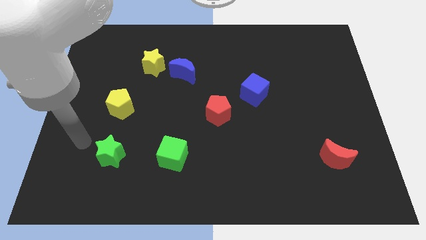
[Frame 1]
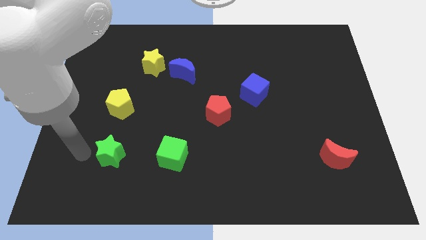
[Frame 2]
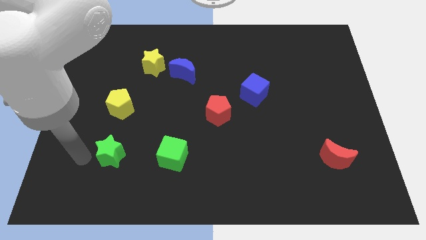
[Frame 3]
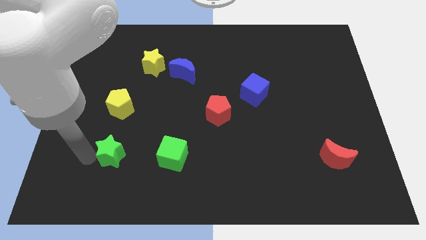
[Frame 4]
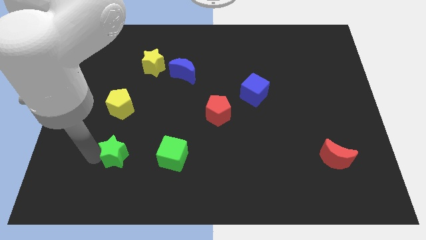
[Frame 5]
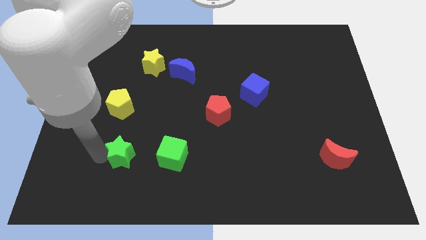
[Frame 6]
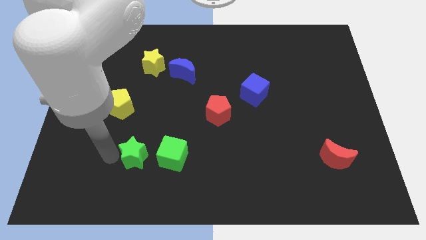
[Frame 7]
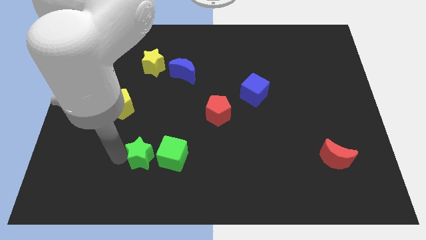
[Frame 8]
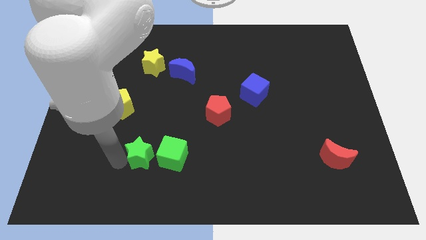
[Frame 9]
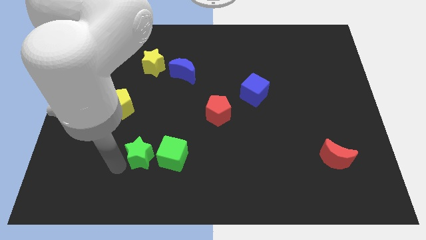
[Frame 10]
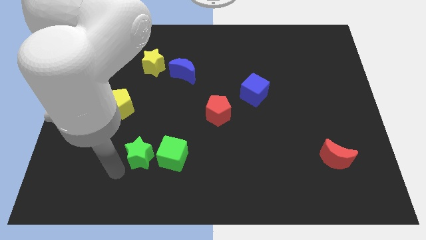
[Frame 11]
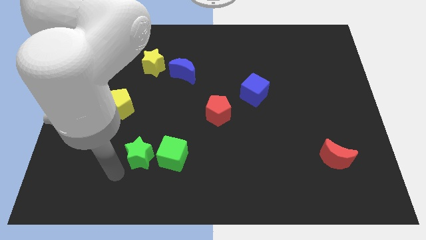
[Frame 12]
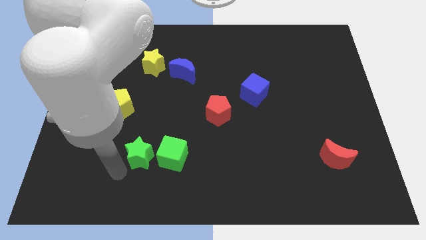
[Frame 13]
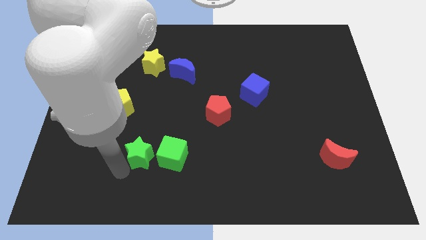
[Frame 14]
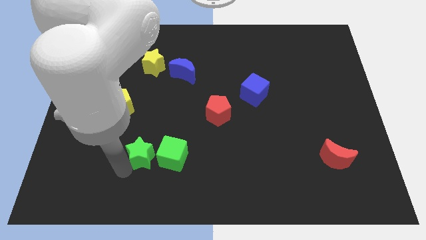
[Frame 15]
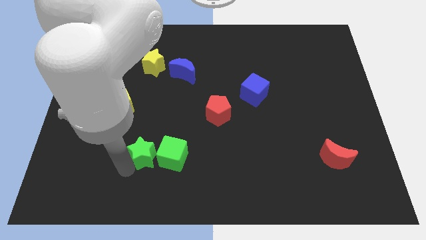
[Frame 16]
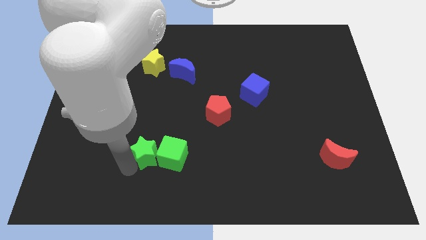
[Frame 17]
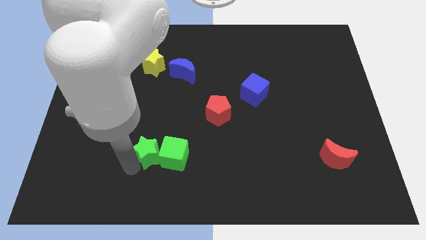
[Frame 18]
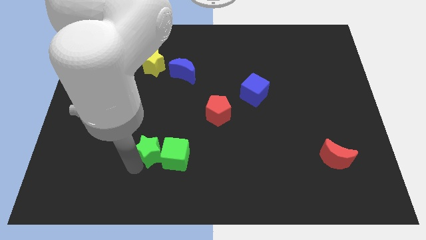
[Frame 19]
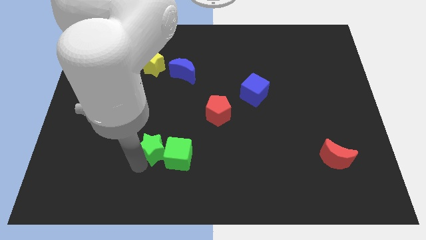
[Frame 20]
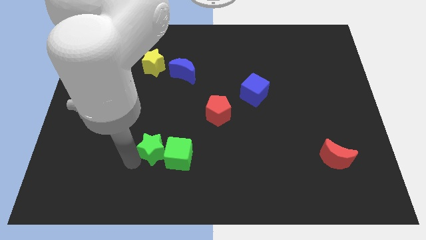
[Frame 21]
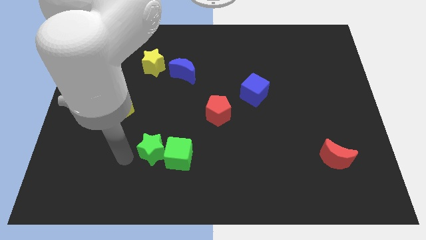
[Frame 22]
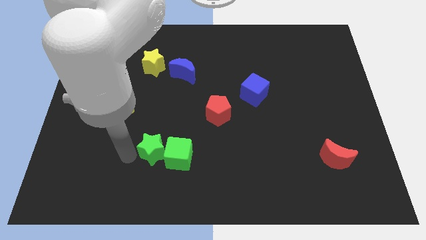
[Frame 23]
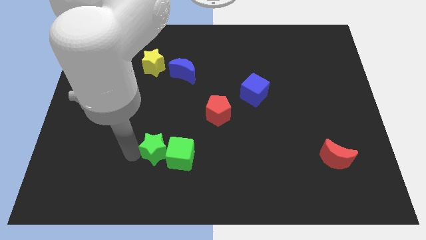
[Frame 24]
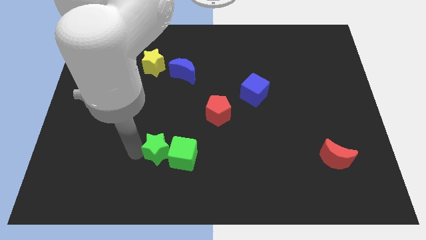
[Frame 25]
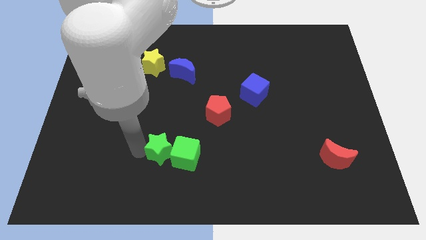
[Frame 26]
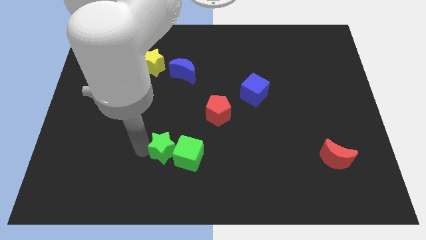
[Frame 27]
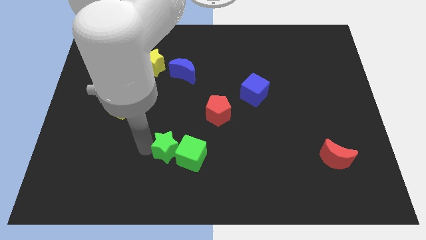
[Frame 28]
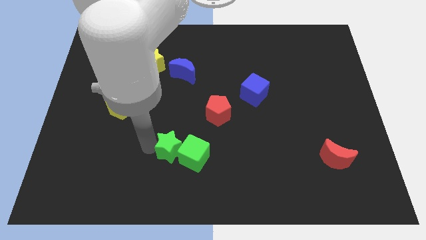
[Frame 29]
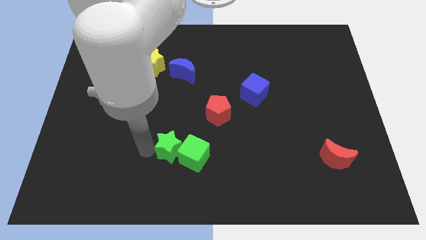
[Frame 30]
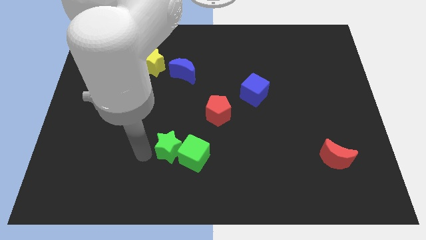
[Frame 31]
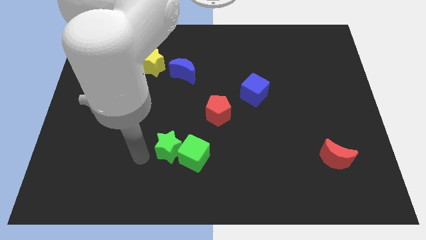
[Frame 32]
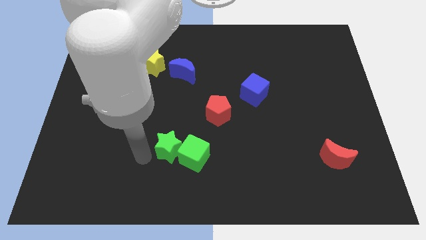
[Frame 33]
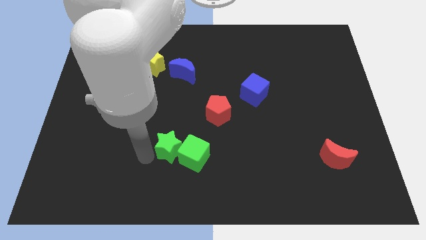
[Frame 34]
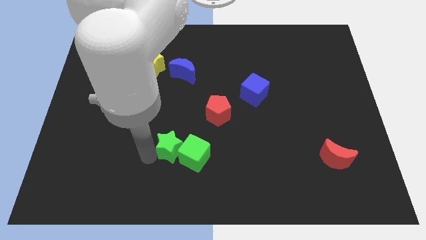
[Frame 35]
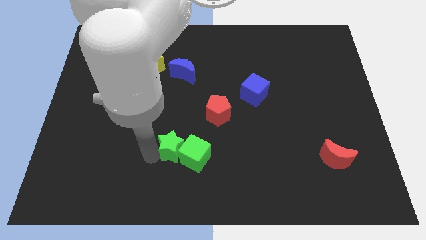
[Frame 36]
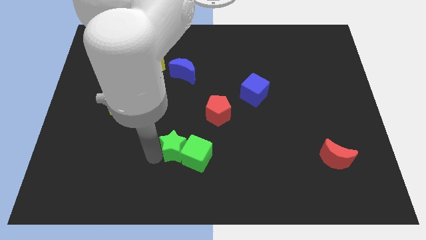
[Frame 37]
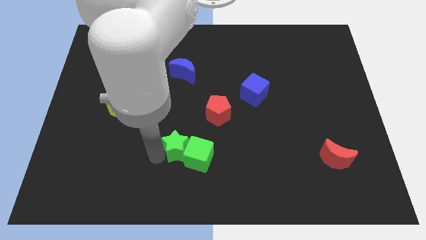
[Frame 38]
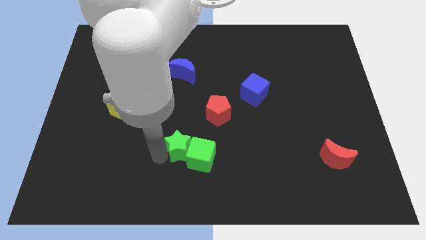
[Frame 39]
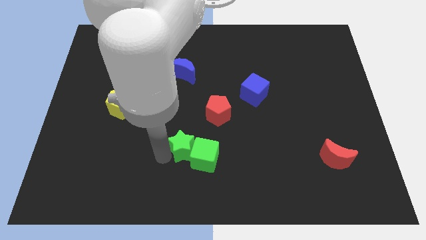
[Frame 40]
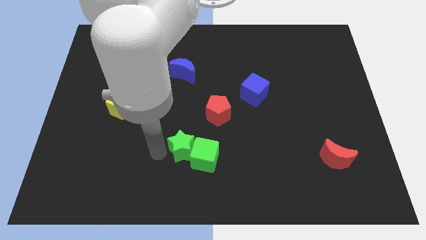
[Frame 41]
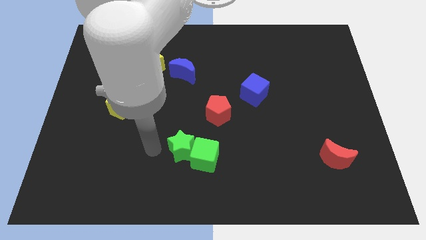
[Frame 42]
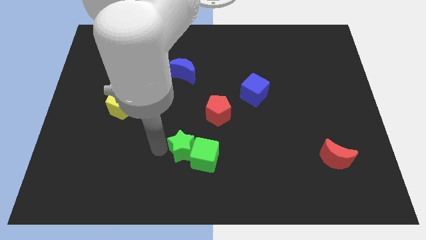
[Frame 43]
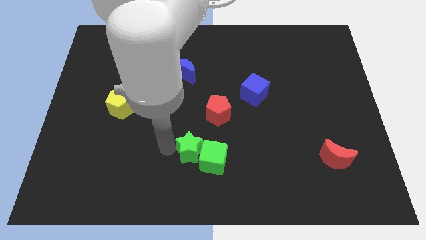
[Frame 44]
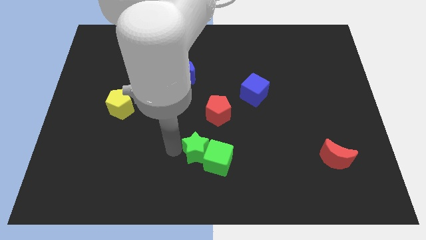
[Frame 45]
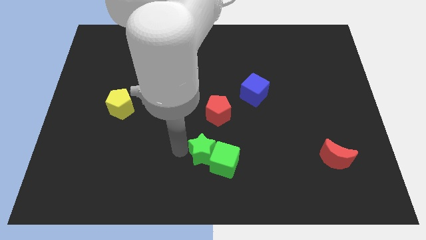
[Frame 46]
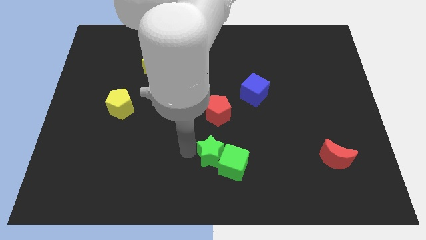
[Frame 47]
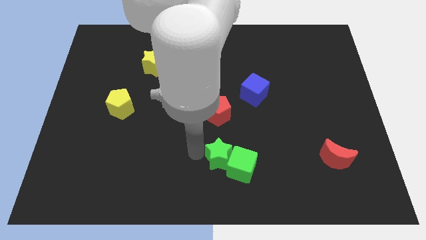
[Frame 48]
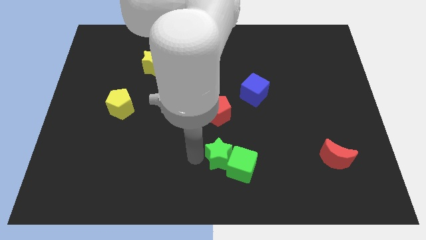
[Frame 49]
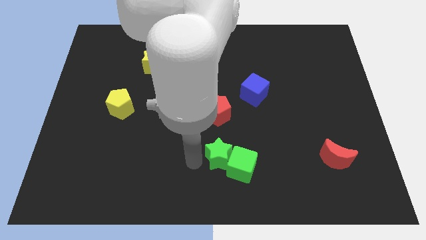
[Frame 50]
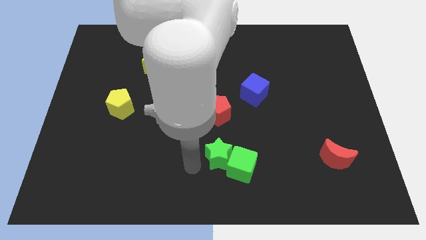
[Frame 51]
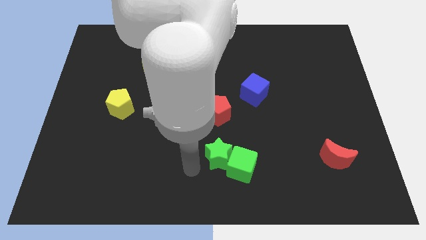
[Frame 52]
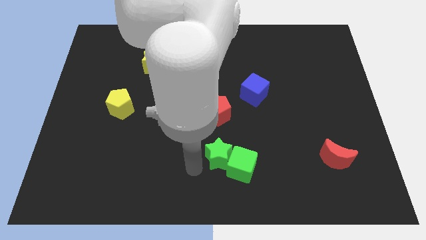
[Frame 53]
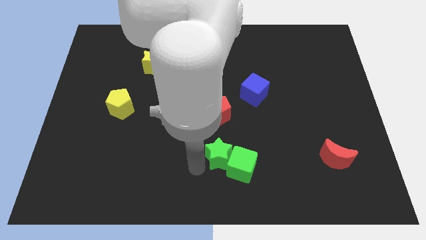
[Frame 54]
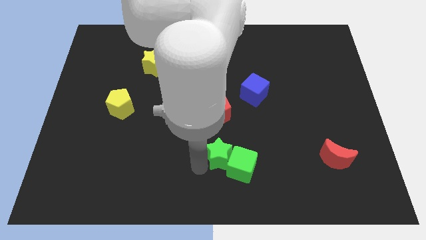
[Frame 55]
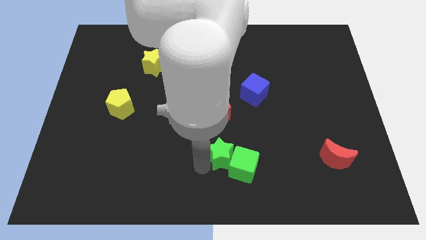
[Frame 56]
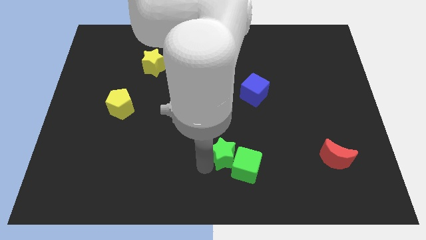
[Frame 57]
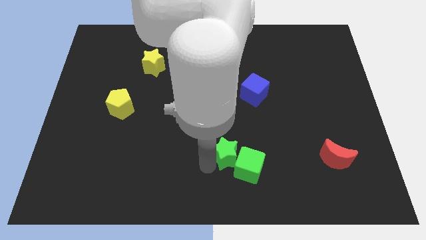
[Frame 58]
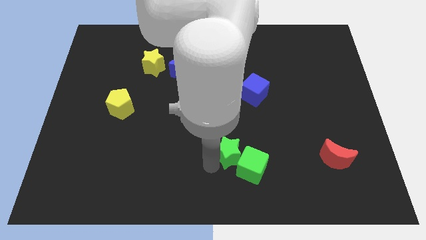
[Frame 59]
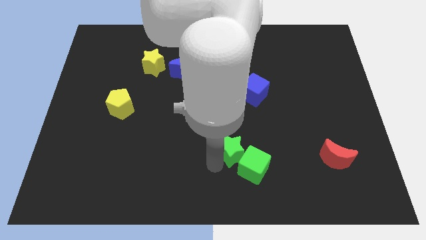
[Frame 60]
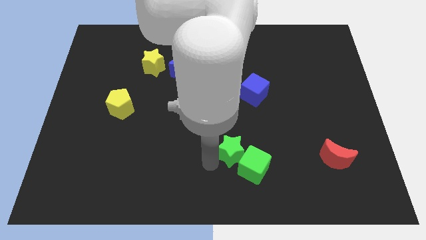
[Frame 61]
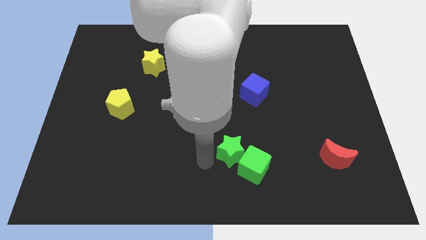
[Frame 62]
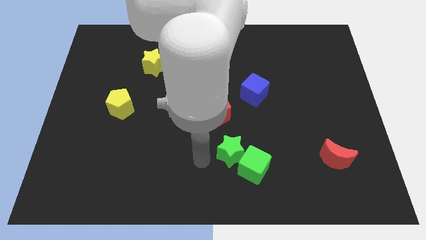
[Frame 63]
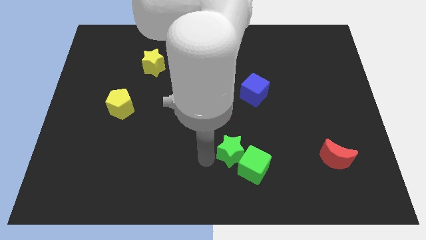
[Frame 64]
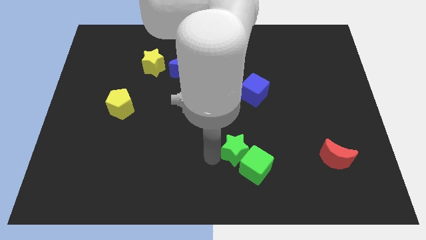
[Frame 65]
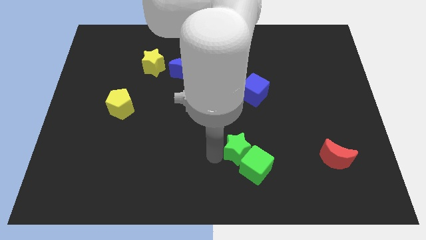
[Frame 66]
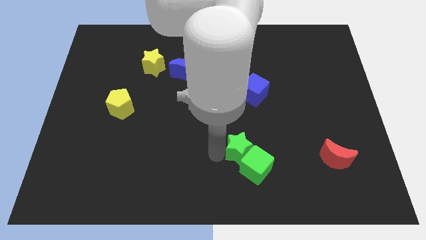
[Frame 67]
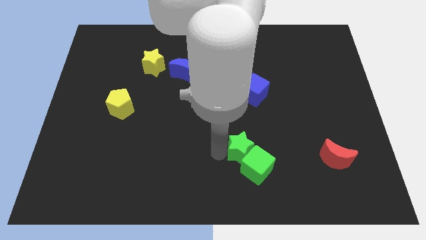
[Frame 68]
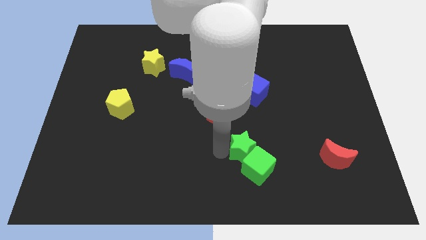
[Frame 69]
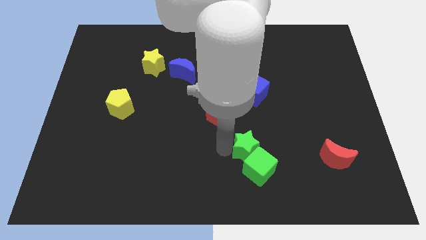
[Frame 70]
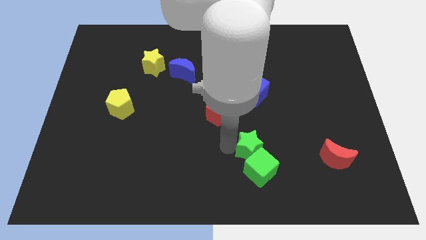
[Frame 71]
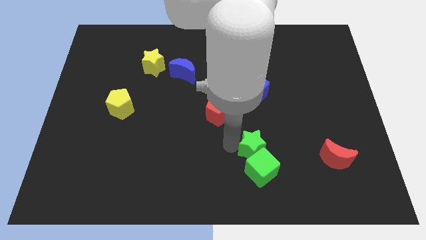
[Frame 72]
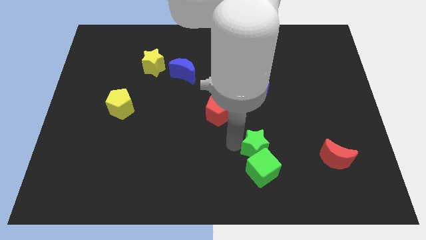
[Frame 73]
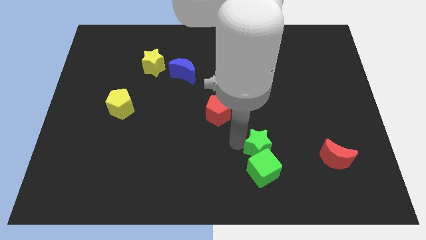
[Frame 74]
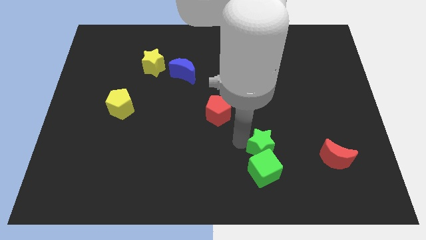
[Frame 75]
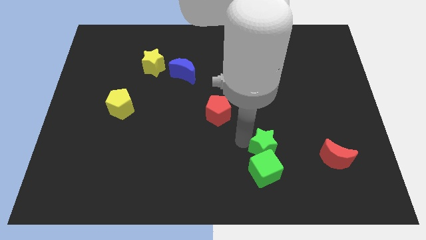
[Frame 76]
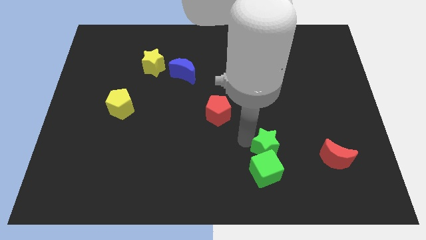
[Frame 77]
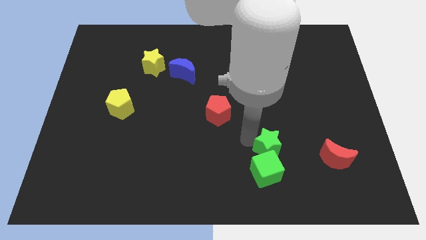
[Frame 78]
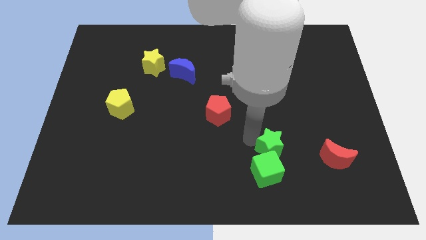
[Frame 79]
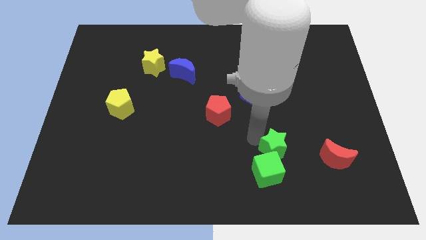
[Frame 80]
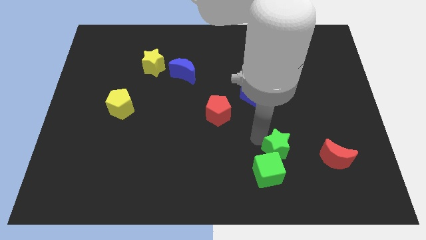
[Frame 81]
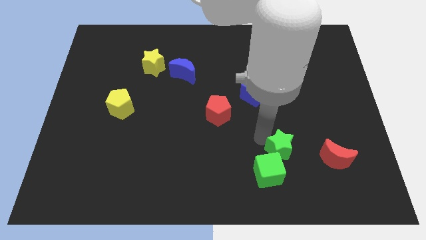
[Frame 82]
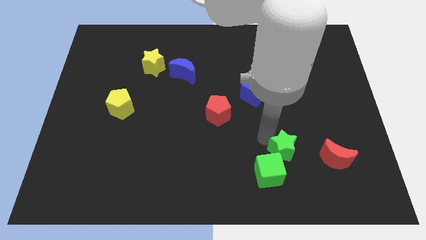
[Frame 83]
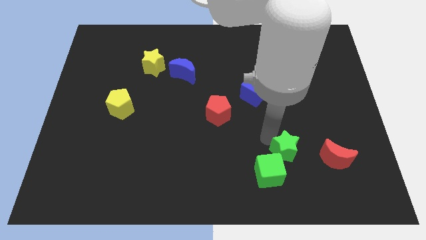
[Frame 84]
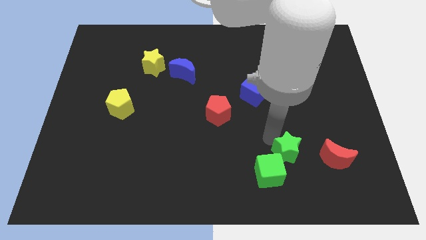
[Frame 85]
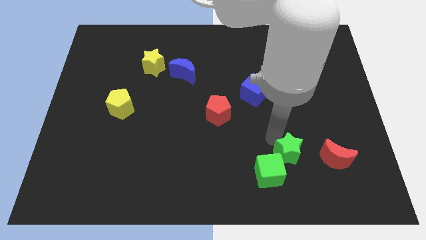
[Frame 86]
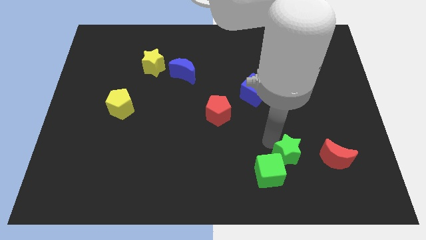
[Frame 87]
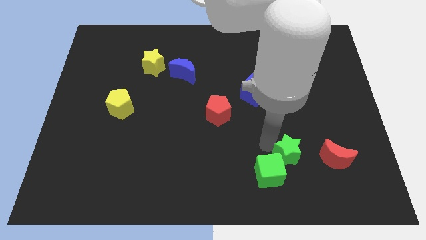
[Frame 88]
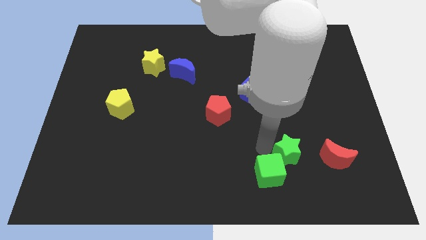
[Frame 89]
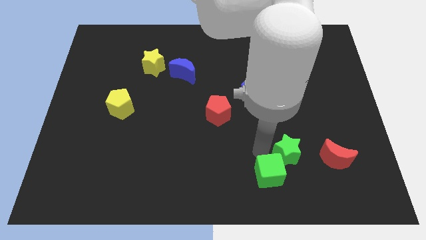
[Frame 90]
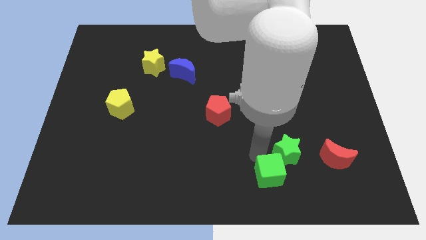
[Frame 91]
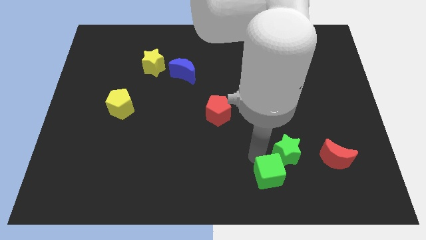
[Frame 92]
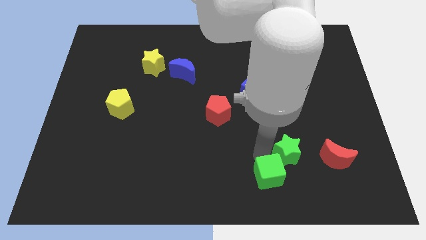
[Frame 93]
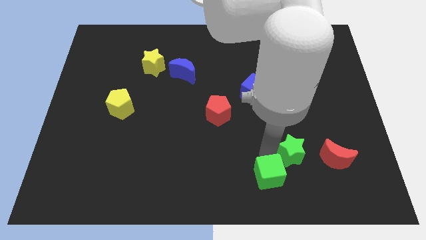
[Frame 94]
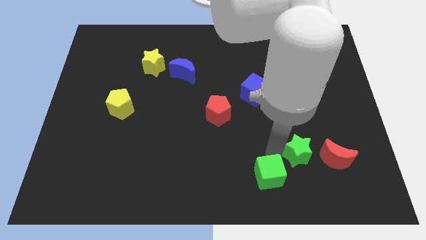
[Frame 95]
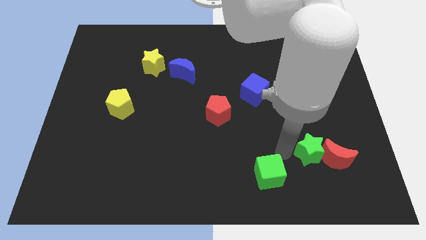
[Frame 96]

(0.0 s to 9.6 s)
put the green star towards the red moon
